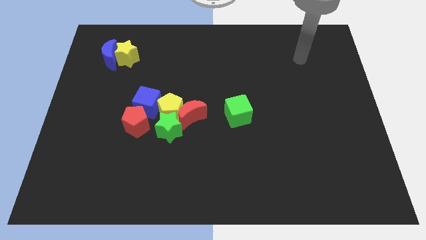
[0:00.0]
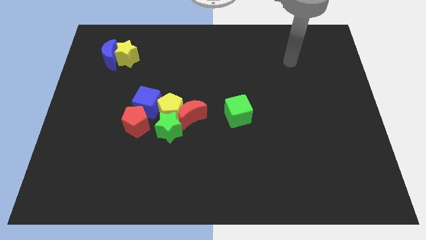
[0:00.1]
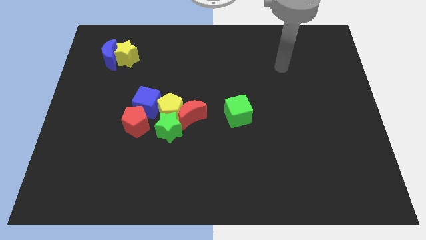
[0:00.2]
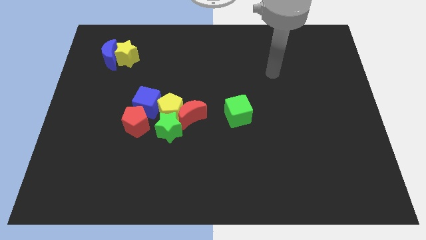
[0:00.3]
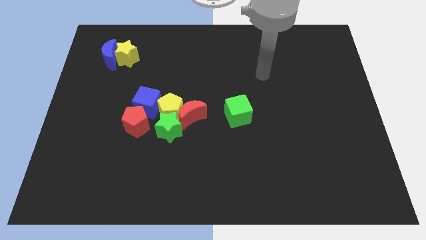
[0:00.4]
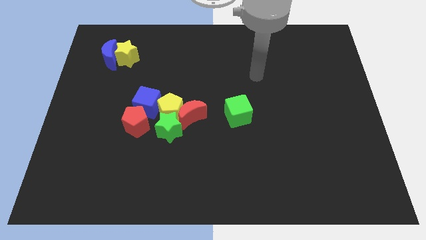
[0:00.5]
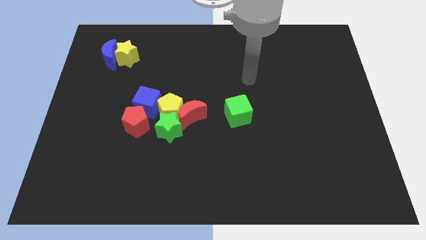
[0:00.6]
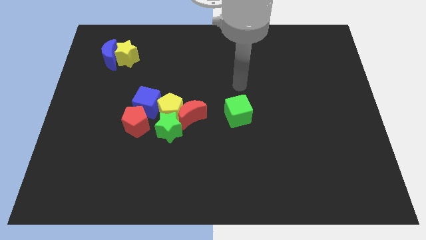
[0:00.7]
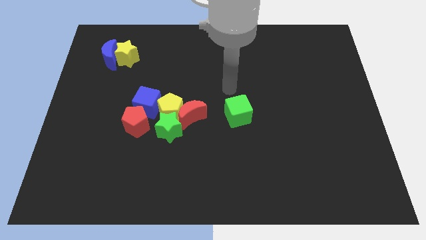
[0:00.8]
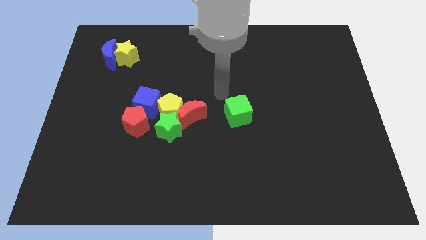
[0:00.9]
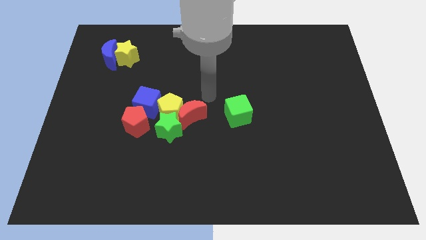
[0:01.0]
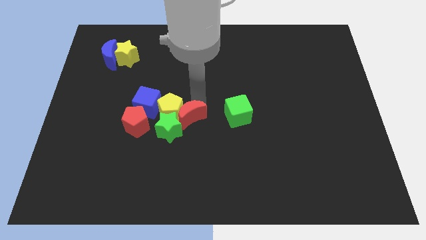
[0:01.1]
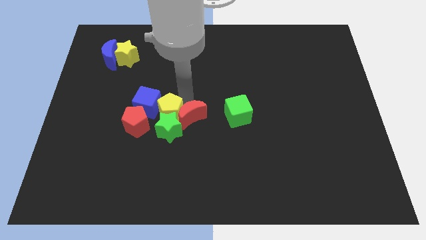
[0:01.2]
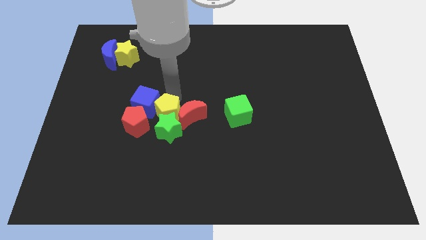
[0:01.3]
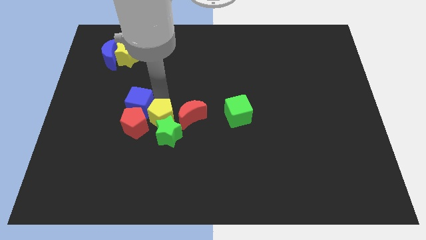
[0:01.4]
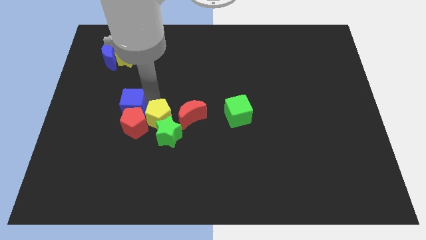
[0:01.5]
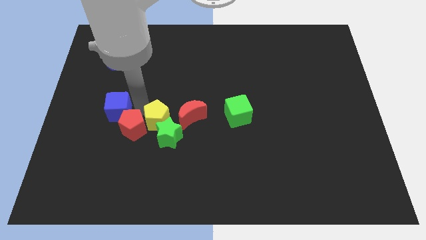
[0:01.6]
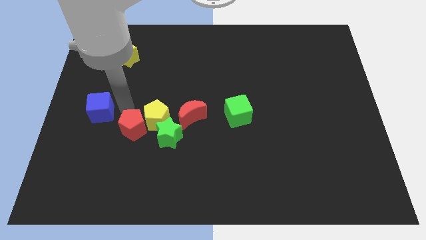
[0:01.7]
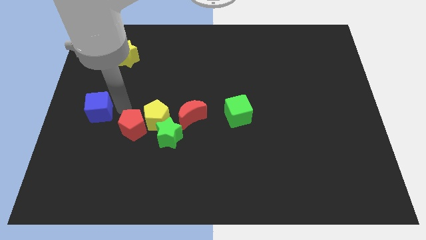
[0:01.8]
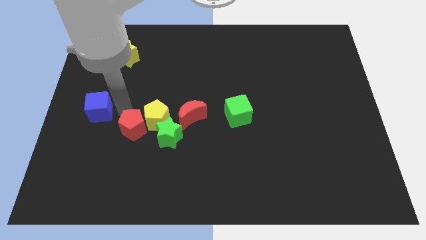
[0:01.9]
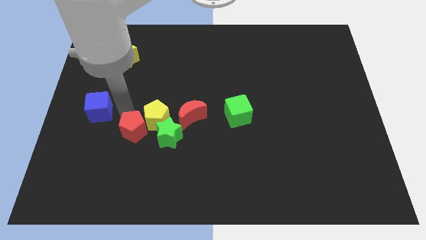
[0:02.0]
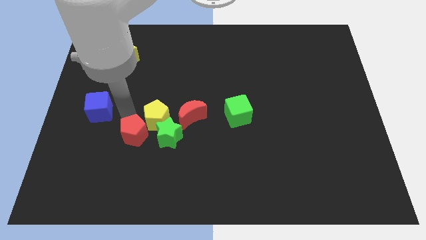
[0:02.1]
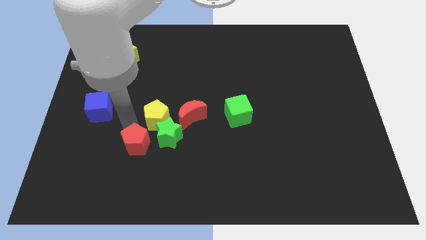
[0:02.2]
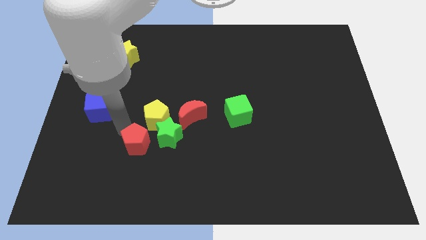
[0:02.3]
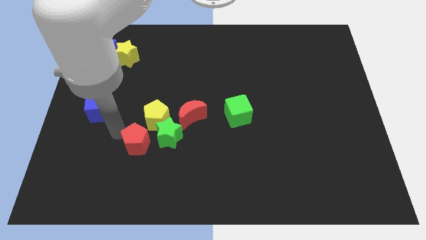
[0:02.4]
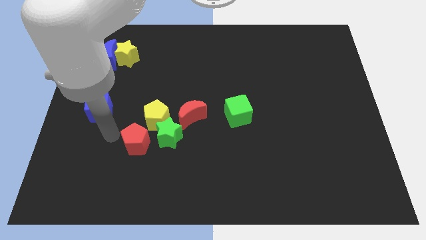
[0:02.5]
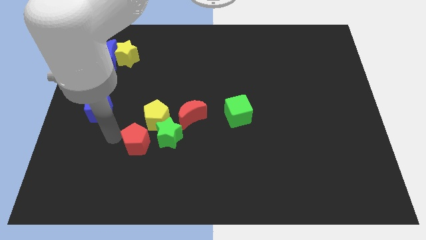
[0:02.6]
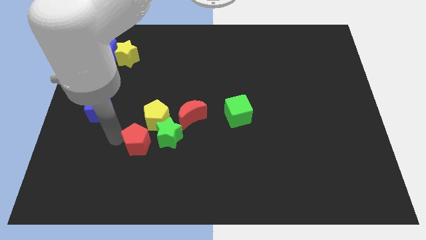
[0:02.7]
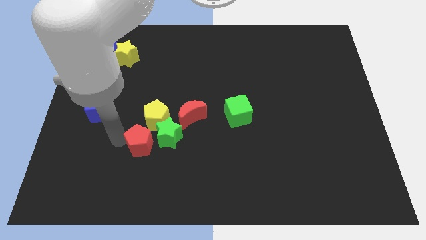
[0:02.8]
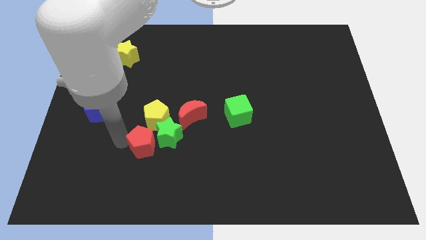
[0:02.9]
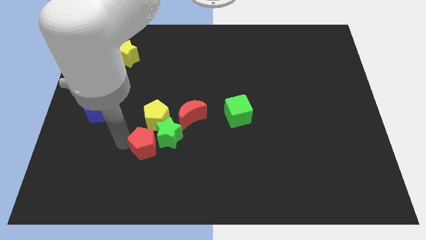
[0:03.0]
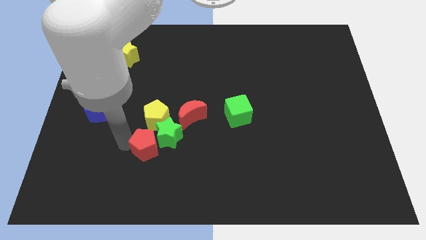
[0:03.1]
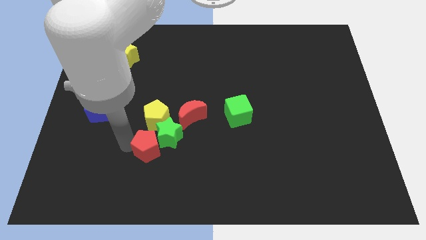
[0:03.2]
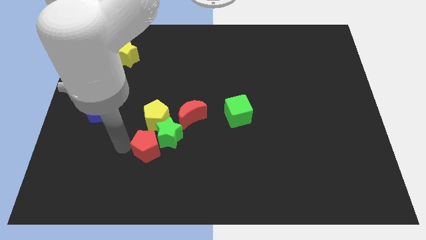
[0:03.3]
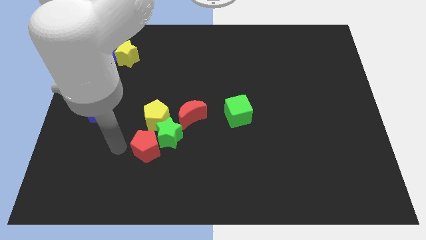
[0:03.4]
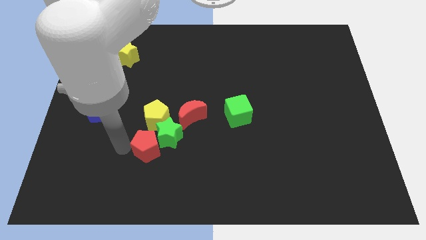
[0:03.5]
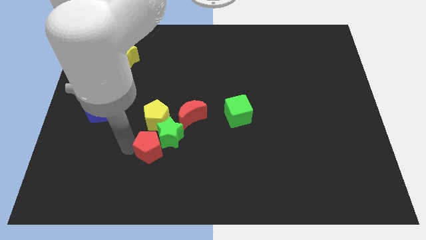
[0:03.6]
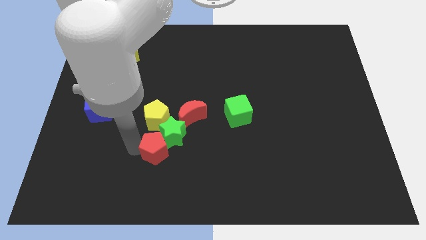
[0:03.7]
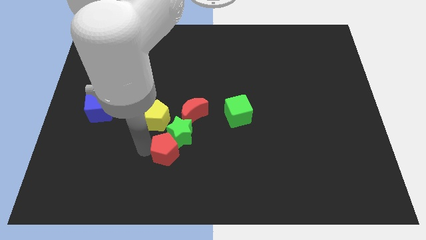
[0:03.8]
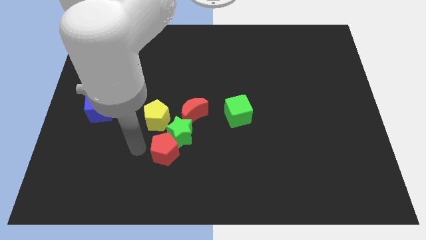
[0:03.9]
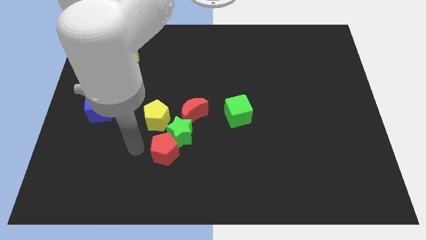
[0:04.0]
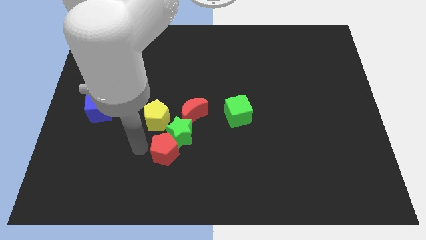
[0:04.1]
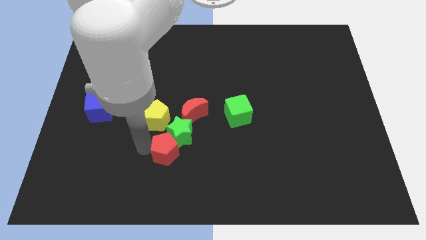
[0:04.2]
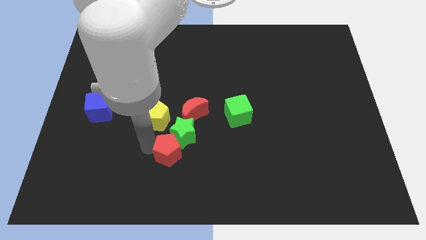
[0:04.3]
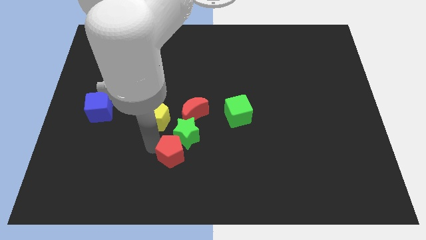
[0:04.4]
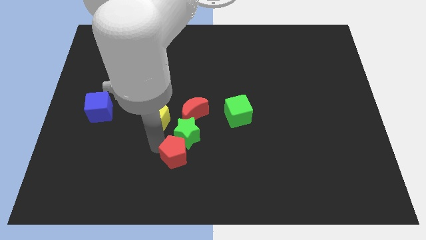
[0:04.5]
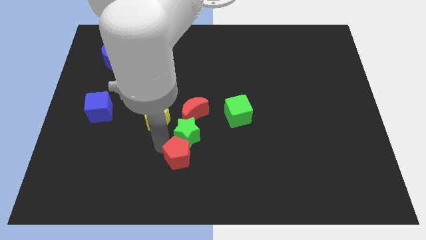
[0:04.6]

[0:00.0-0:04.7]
push the red pentagon to the bottom right of the green star

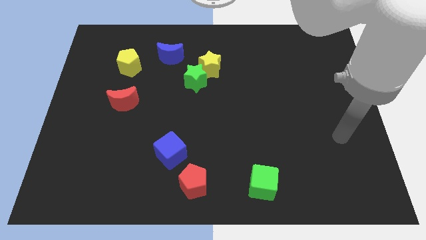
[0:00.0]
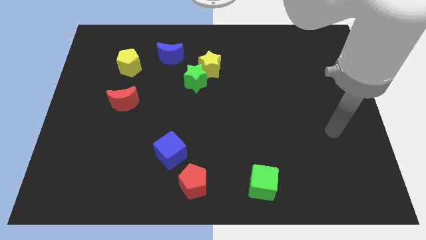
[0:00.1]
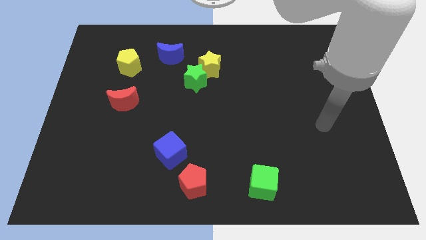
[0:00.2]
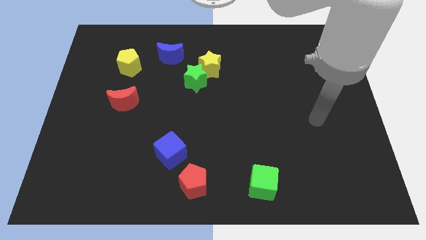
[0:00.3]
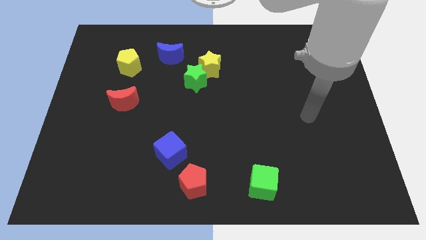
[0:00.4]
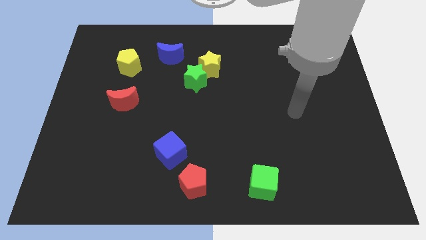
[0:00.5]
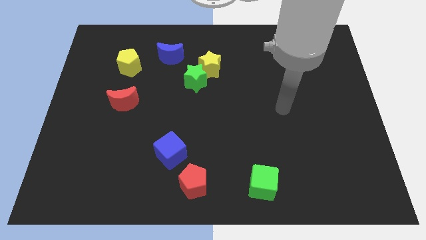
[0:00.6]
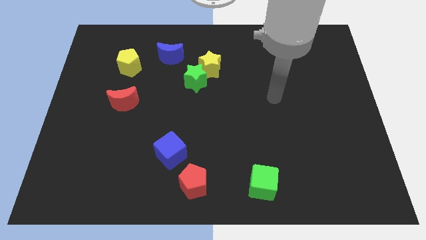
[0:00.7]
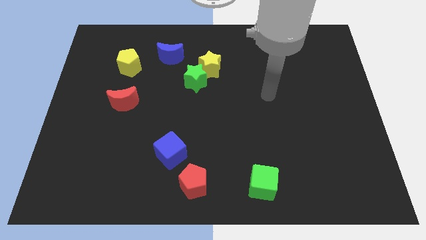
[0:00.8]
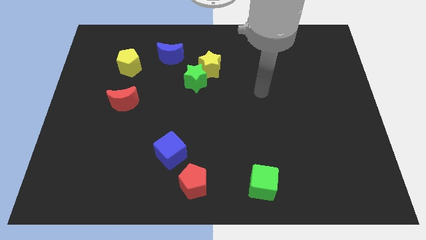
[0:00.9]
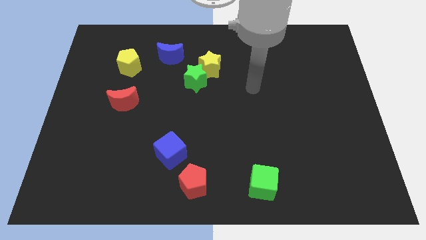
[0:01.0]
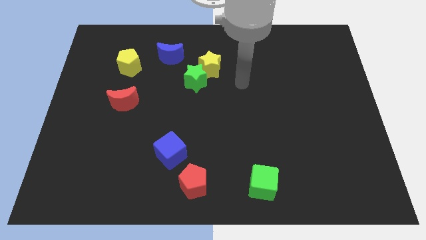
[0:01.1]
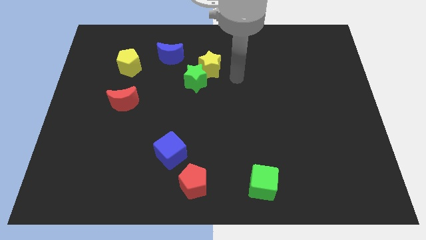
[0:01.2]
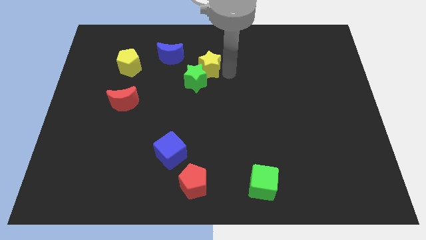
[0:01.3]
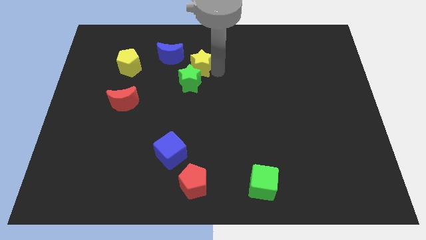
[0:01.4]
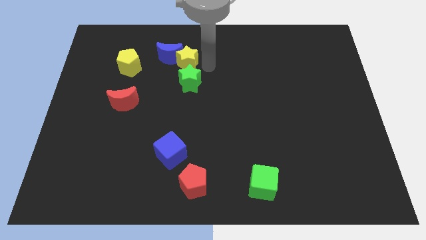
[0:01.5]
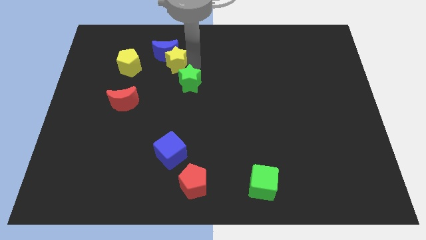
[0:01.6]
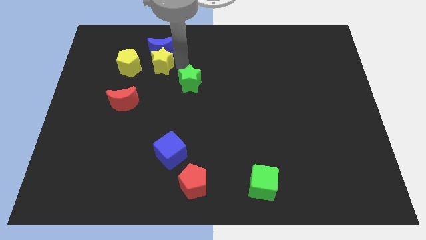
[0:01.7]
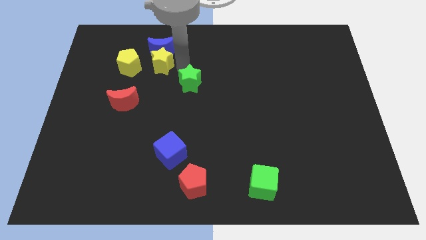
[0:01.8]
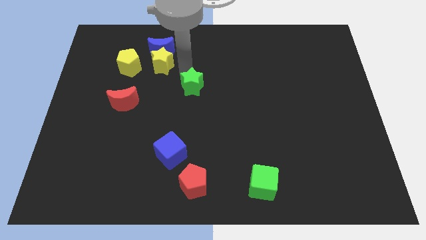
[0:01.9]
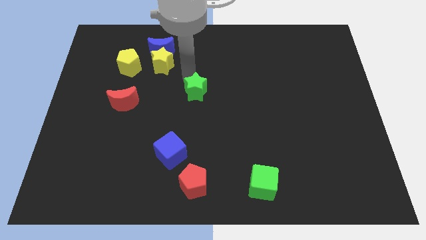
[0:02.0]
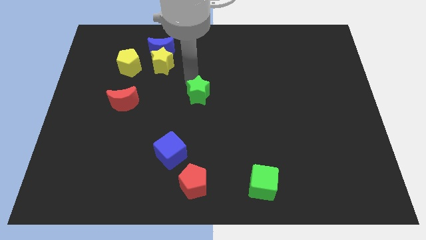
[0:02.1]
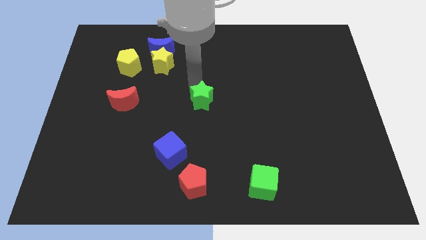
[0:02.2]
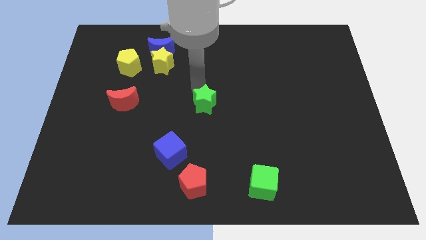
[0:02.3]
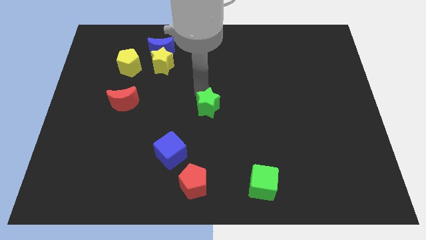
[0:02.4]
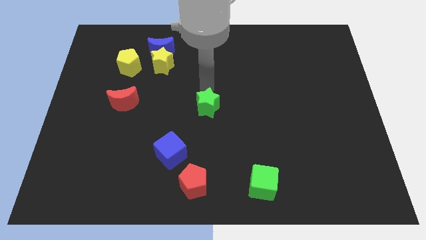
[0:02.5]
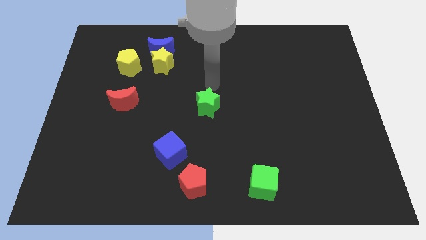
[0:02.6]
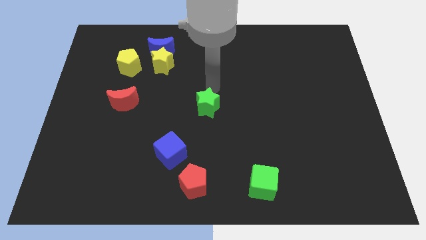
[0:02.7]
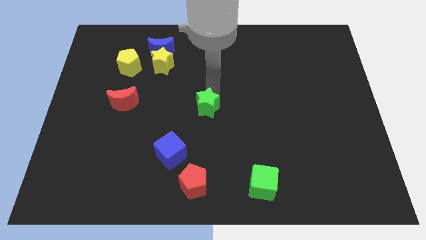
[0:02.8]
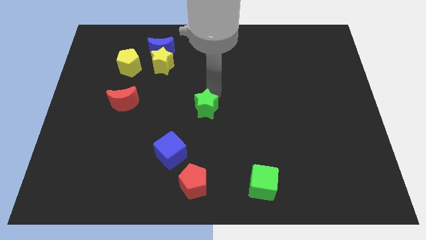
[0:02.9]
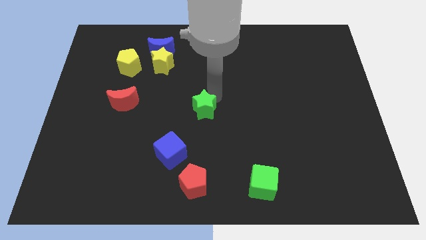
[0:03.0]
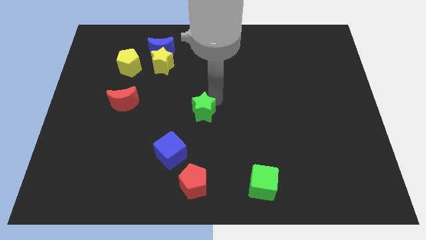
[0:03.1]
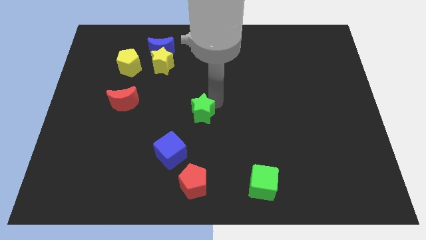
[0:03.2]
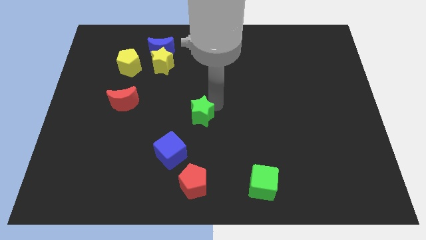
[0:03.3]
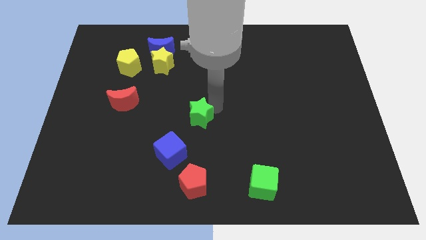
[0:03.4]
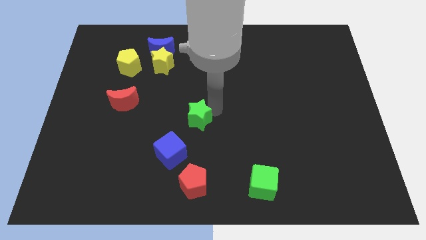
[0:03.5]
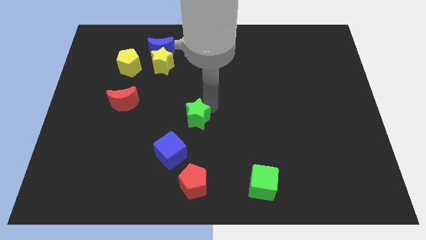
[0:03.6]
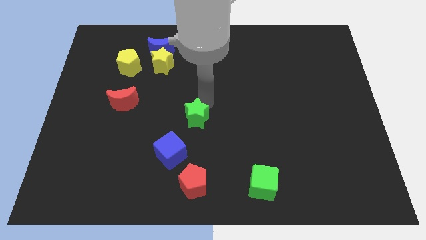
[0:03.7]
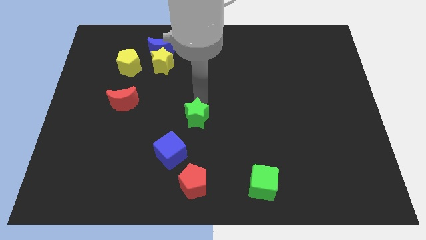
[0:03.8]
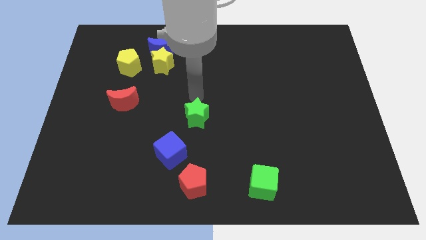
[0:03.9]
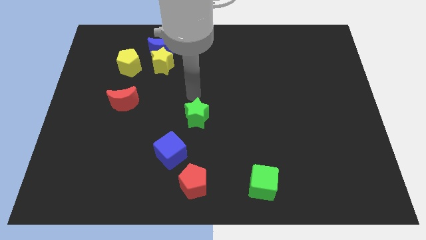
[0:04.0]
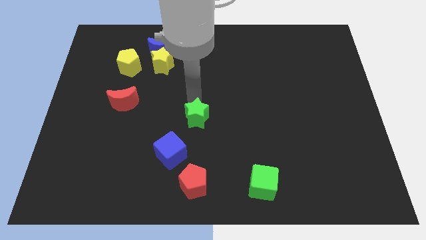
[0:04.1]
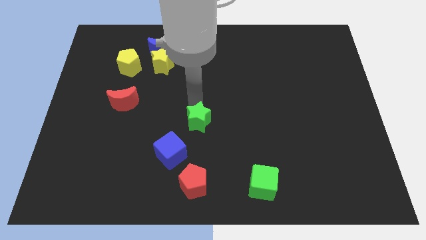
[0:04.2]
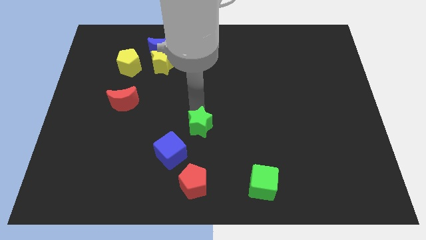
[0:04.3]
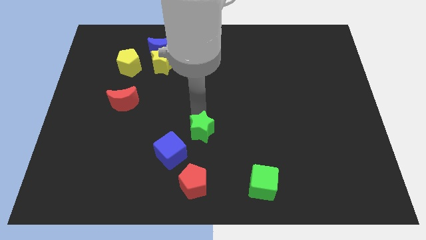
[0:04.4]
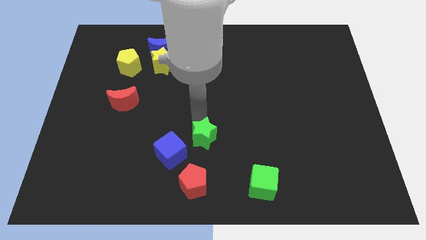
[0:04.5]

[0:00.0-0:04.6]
move the green star to the right of the blue cube
